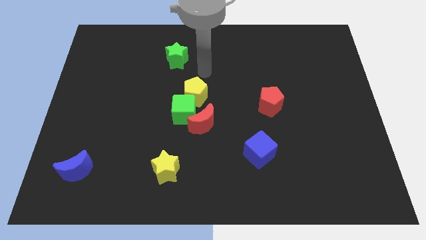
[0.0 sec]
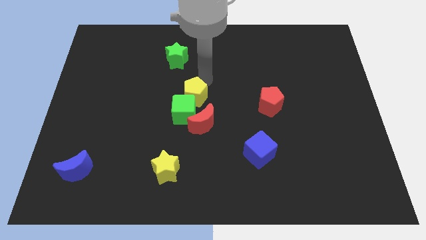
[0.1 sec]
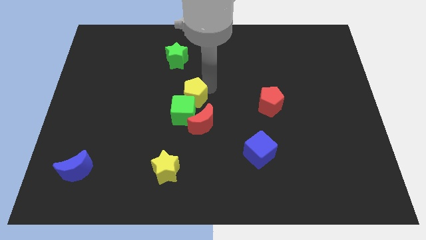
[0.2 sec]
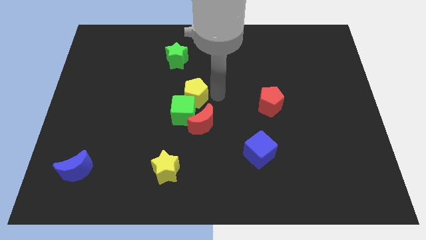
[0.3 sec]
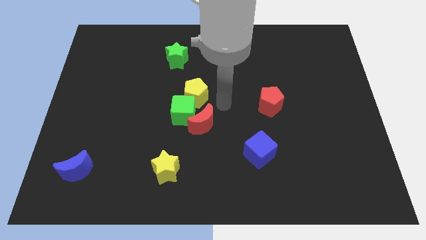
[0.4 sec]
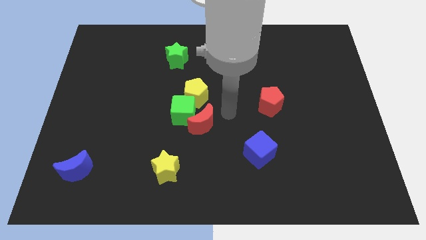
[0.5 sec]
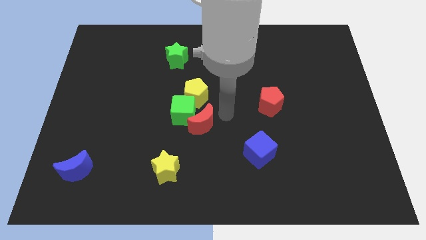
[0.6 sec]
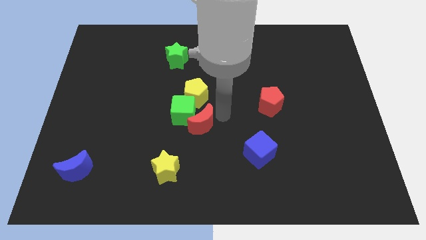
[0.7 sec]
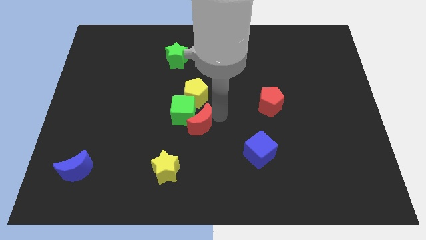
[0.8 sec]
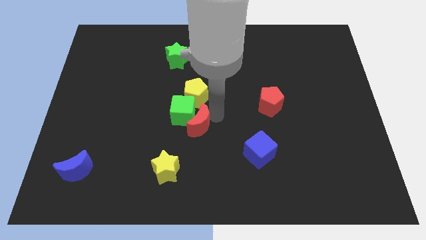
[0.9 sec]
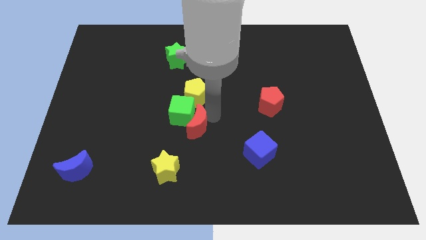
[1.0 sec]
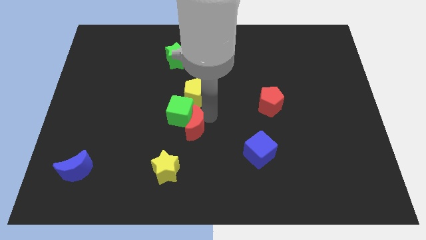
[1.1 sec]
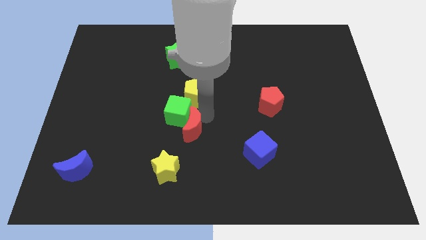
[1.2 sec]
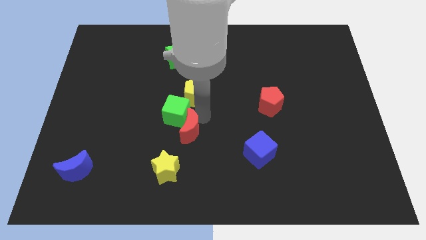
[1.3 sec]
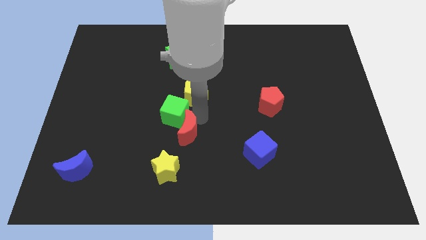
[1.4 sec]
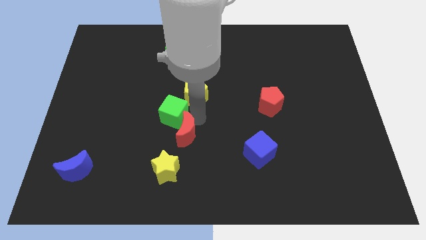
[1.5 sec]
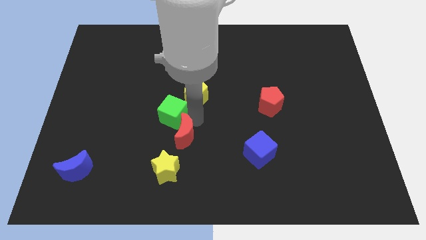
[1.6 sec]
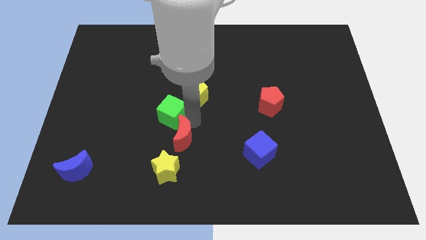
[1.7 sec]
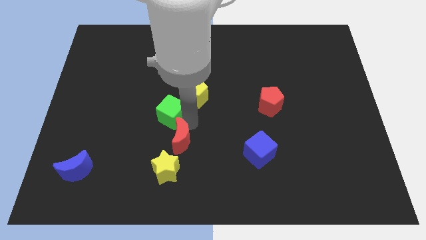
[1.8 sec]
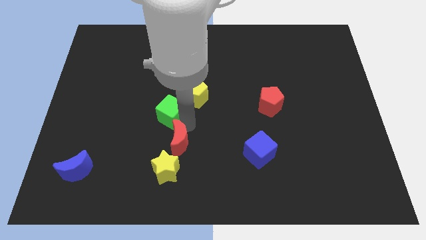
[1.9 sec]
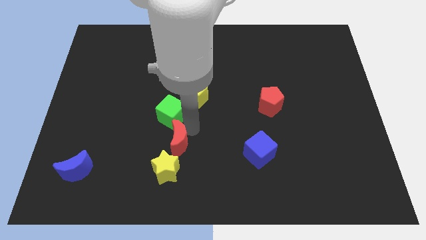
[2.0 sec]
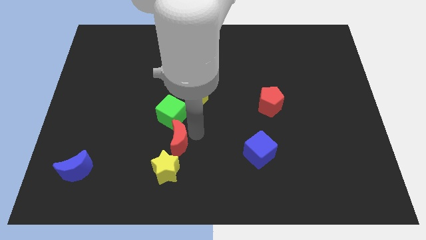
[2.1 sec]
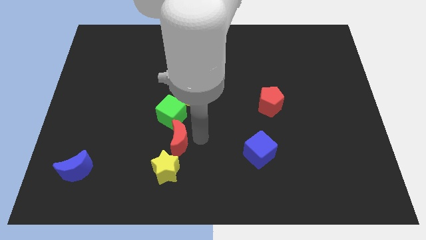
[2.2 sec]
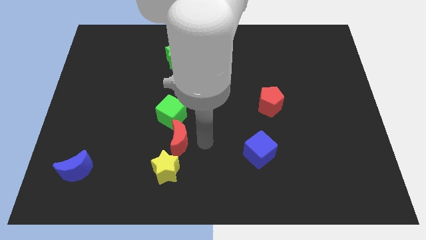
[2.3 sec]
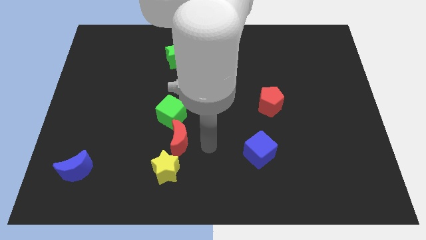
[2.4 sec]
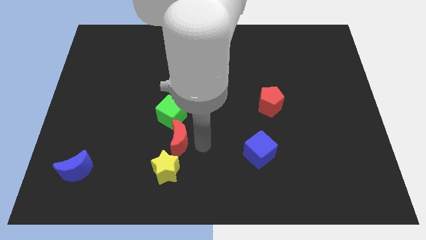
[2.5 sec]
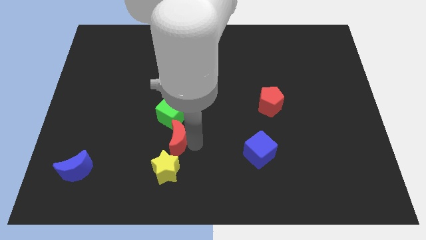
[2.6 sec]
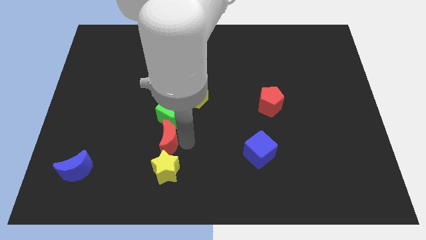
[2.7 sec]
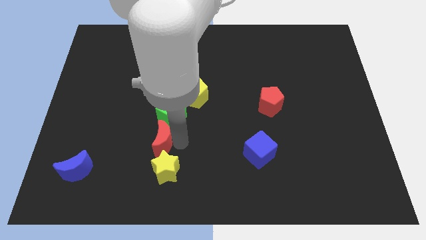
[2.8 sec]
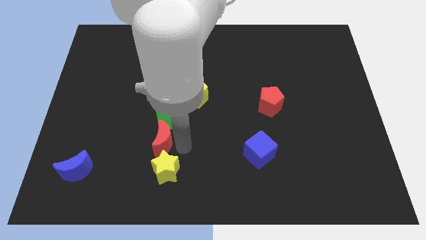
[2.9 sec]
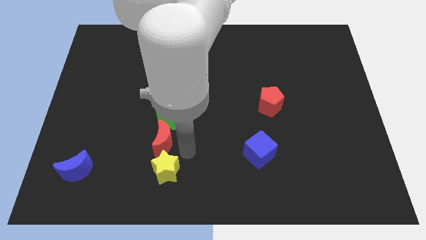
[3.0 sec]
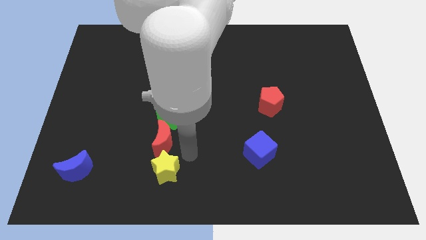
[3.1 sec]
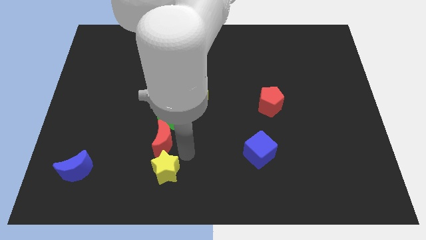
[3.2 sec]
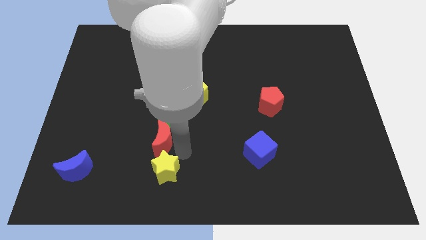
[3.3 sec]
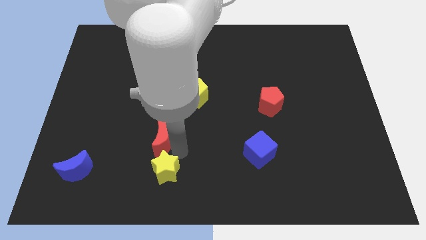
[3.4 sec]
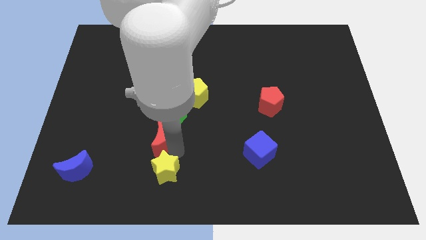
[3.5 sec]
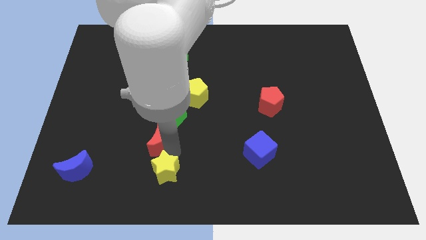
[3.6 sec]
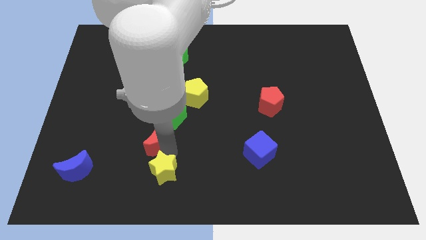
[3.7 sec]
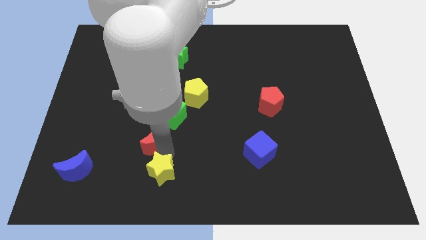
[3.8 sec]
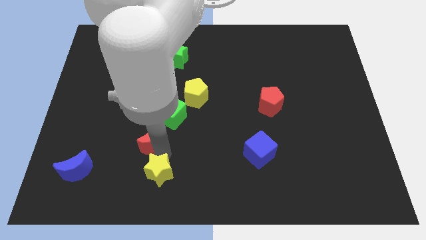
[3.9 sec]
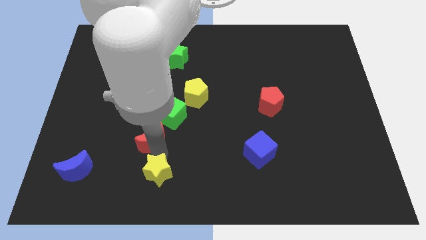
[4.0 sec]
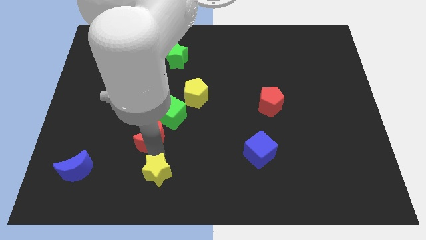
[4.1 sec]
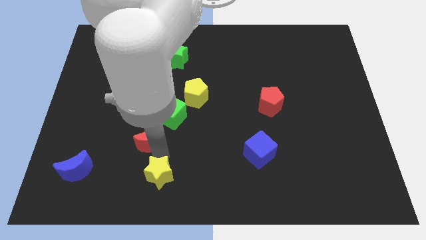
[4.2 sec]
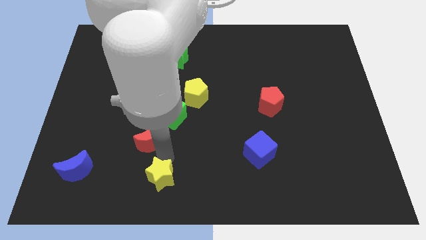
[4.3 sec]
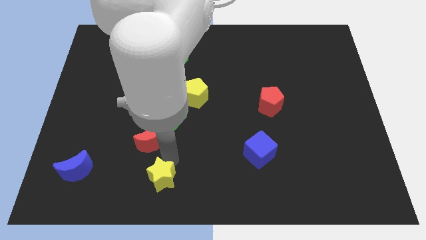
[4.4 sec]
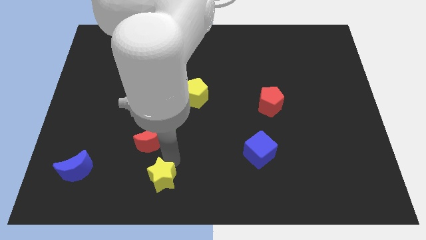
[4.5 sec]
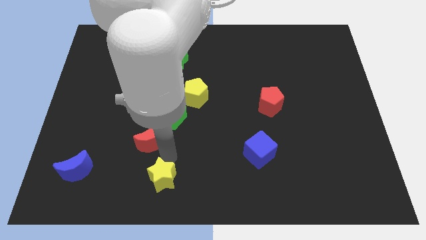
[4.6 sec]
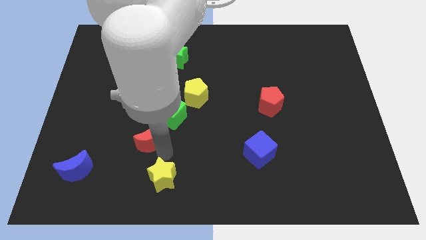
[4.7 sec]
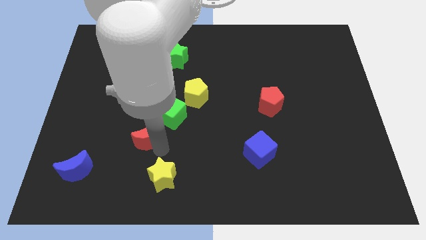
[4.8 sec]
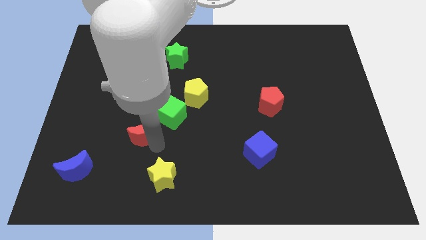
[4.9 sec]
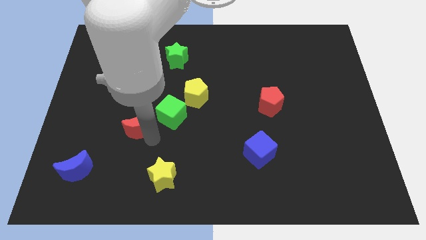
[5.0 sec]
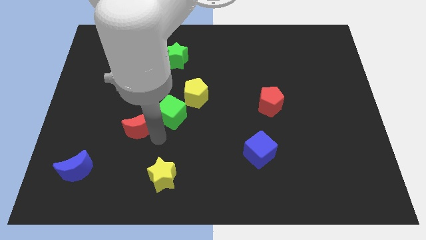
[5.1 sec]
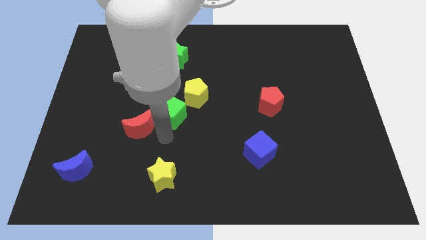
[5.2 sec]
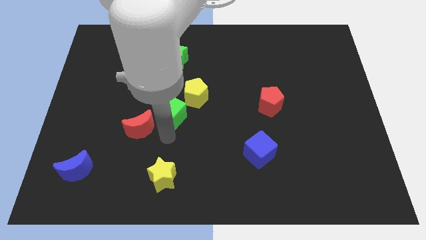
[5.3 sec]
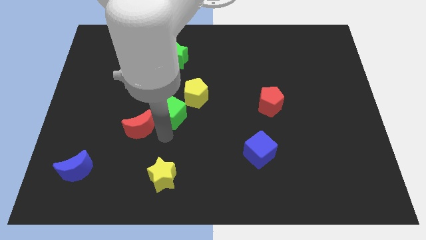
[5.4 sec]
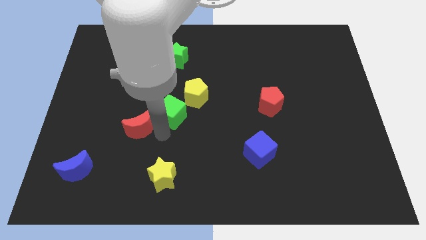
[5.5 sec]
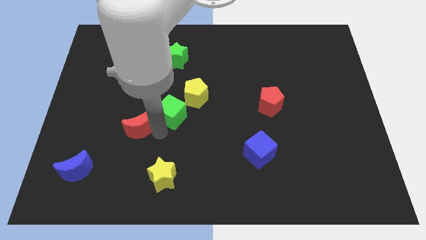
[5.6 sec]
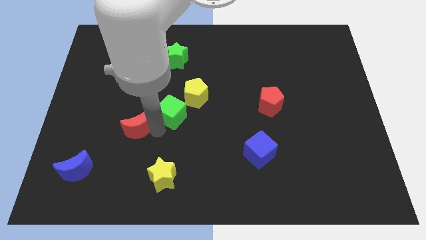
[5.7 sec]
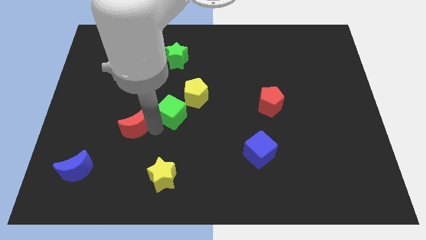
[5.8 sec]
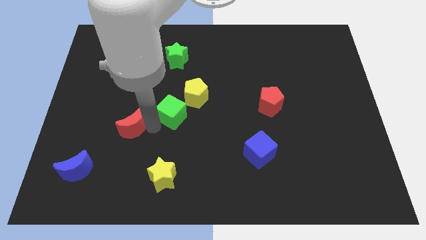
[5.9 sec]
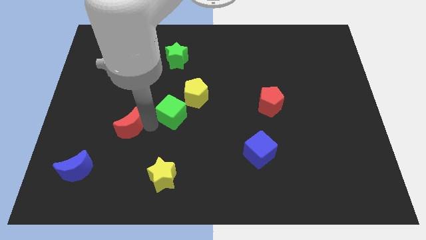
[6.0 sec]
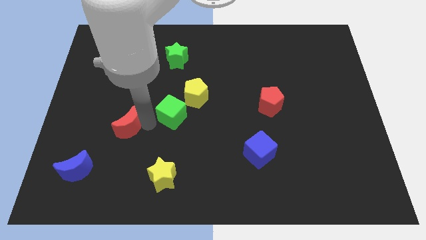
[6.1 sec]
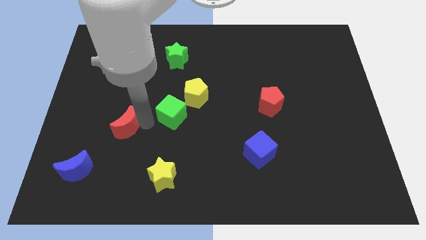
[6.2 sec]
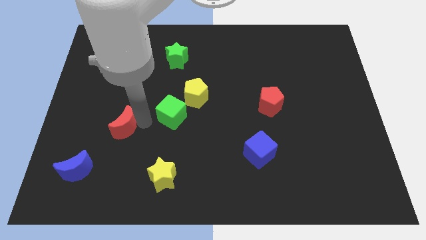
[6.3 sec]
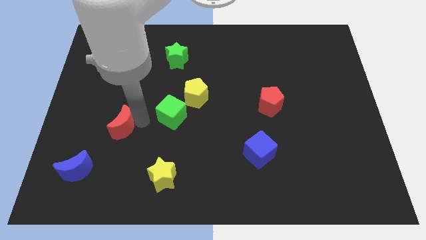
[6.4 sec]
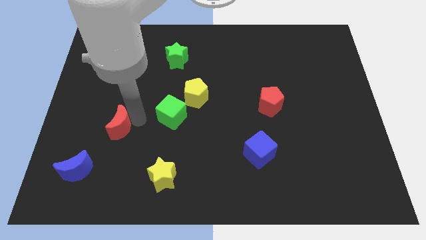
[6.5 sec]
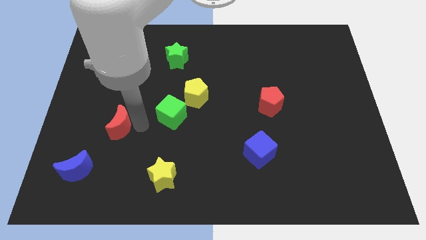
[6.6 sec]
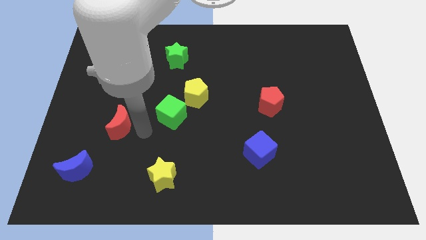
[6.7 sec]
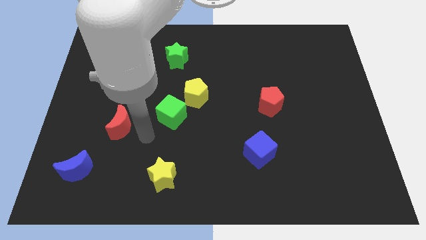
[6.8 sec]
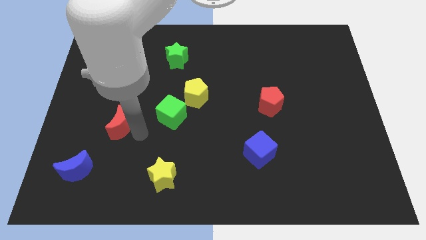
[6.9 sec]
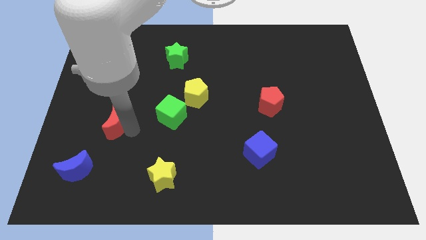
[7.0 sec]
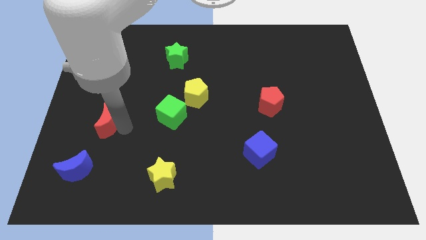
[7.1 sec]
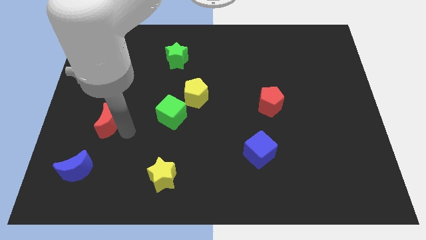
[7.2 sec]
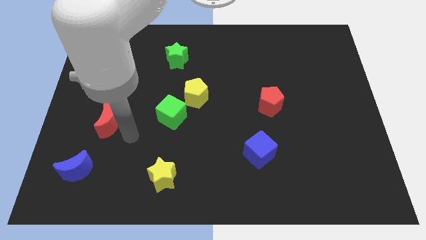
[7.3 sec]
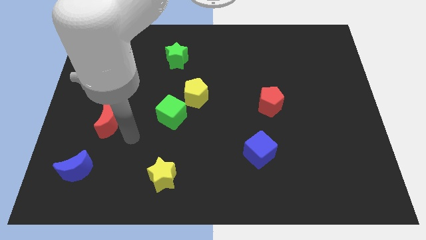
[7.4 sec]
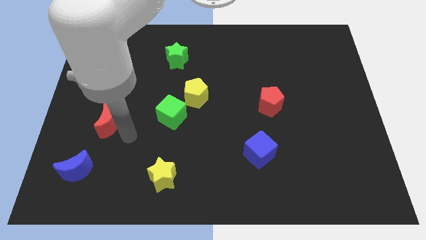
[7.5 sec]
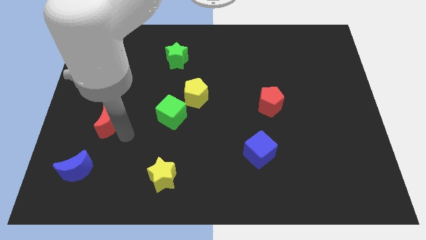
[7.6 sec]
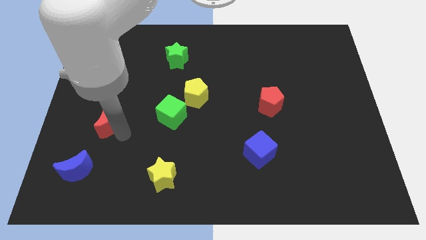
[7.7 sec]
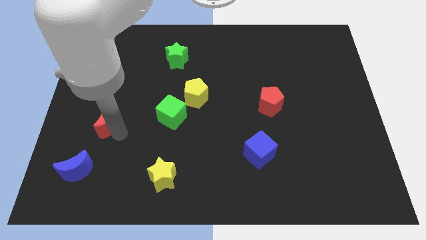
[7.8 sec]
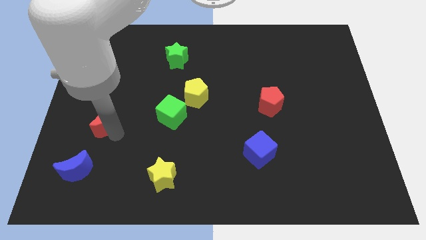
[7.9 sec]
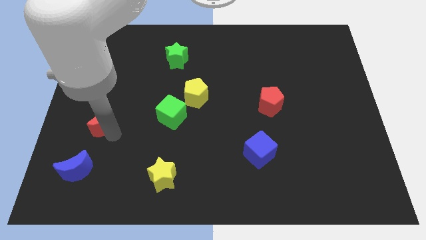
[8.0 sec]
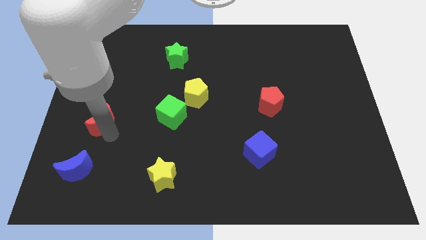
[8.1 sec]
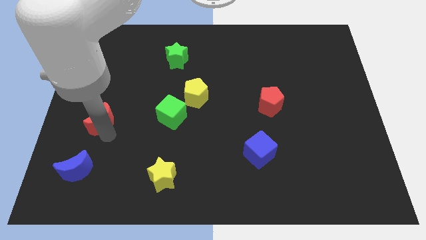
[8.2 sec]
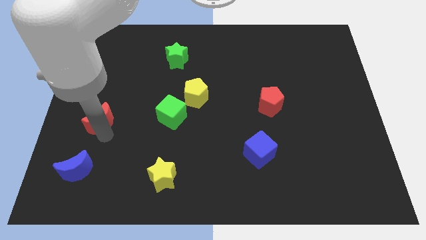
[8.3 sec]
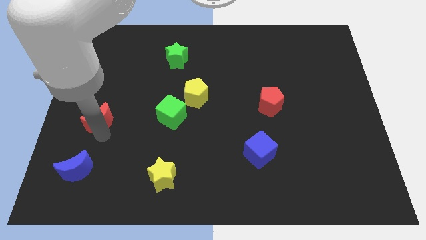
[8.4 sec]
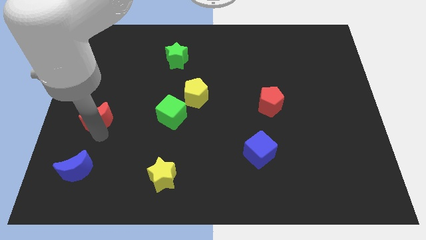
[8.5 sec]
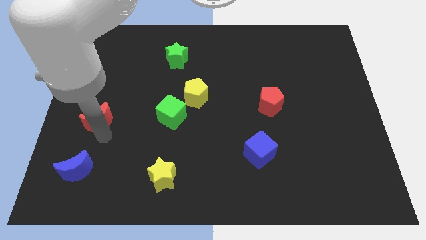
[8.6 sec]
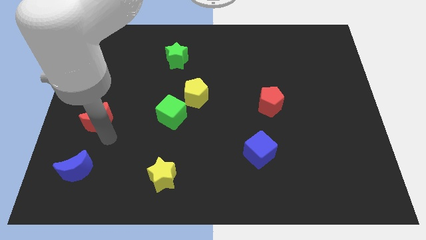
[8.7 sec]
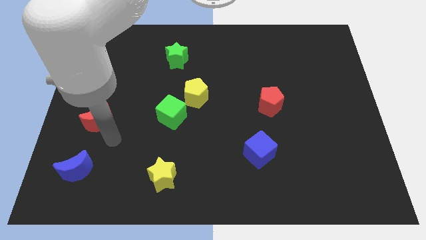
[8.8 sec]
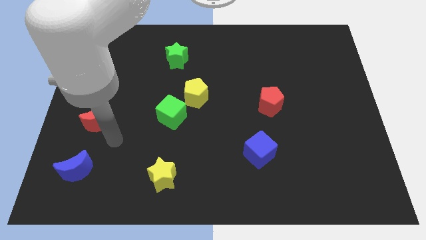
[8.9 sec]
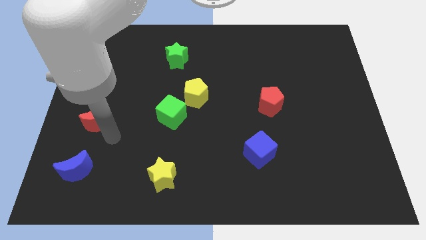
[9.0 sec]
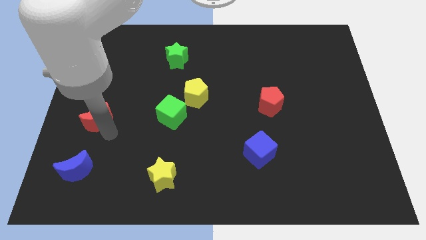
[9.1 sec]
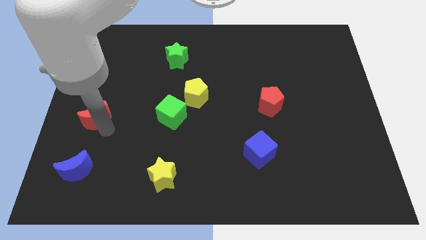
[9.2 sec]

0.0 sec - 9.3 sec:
put the red moon to the left side of the board
